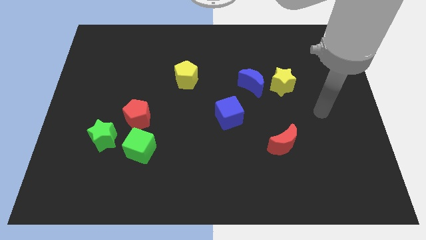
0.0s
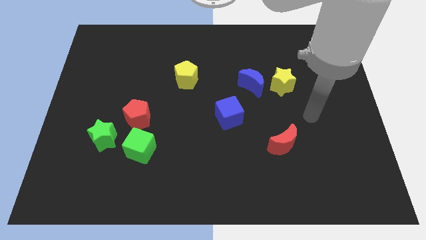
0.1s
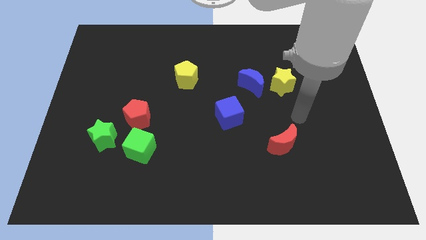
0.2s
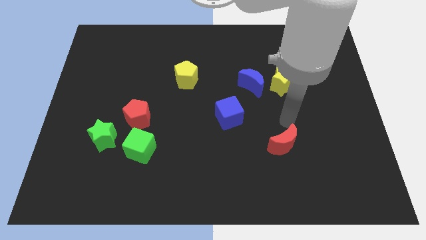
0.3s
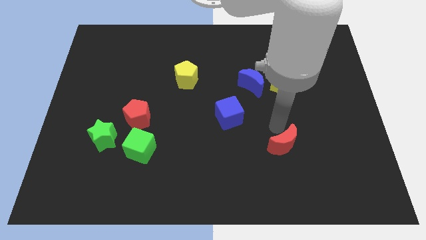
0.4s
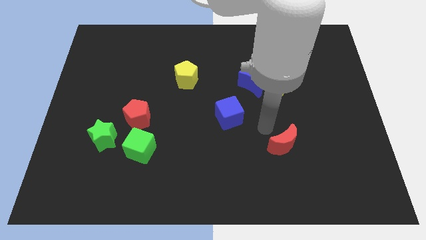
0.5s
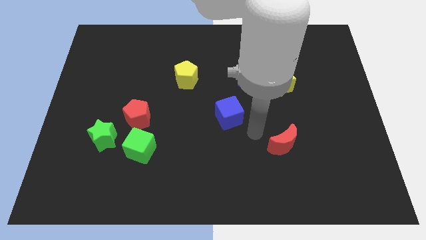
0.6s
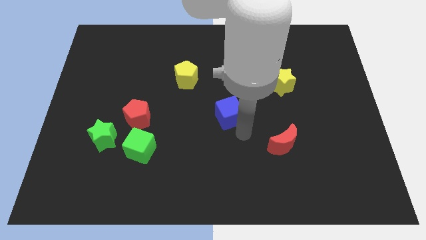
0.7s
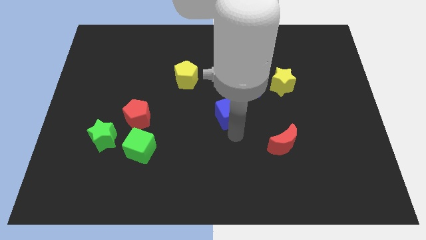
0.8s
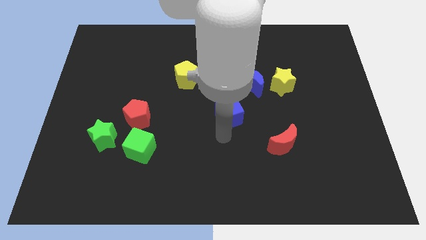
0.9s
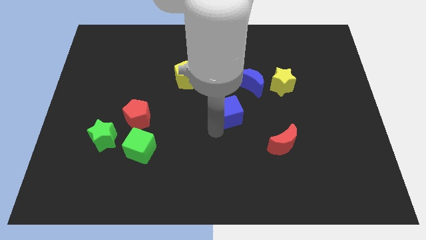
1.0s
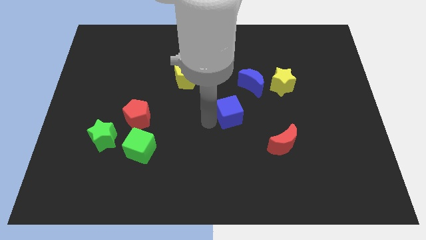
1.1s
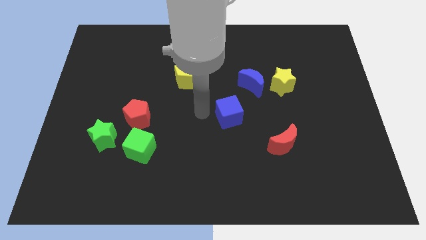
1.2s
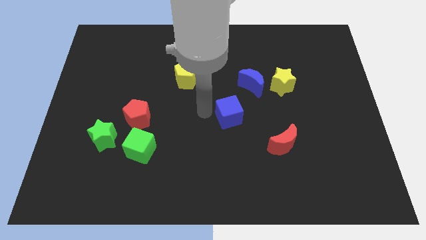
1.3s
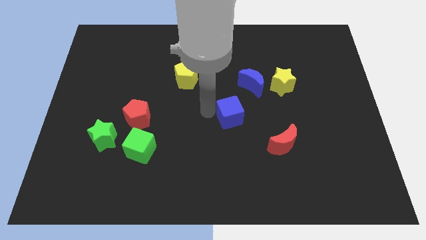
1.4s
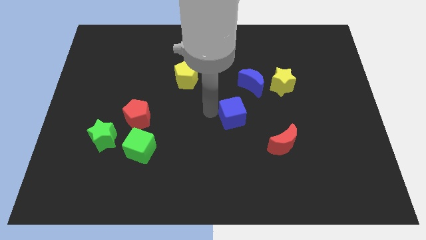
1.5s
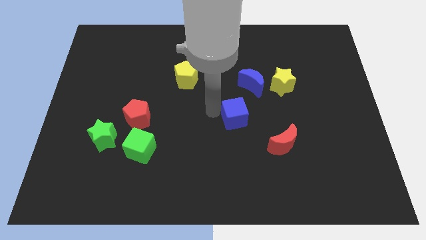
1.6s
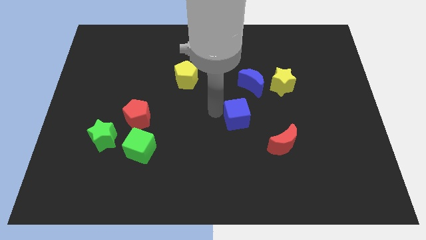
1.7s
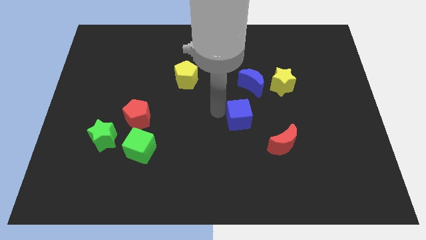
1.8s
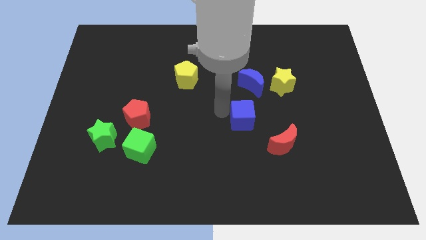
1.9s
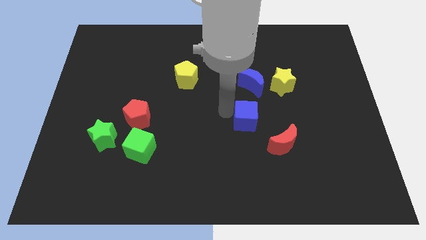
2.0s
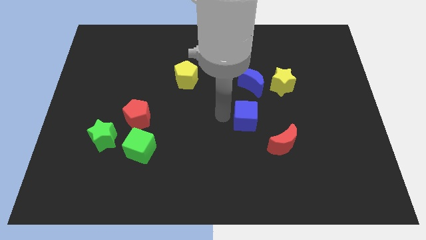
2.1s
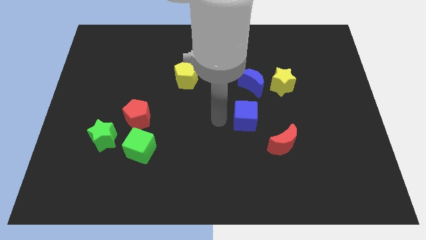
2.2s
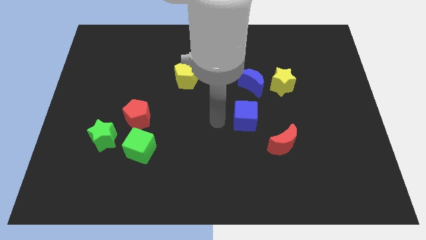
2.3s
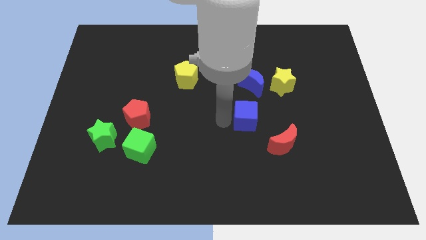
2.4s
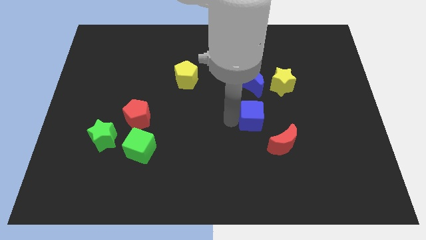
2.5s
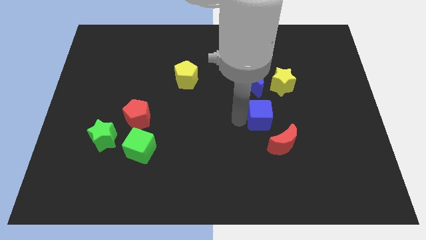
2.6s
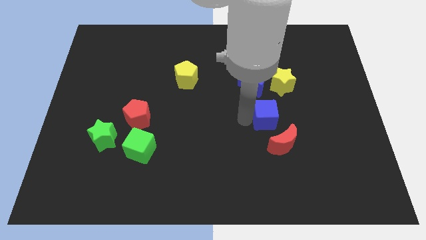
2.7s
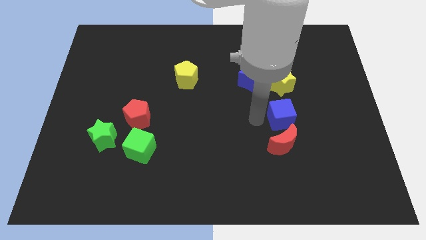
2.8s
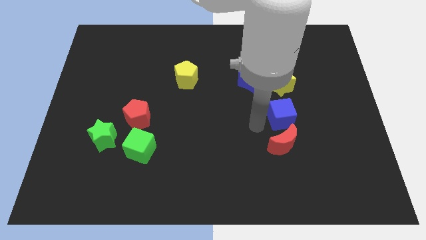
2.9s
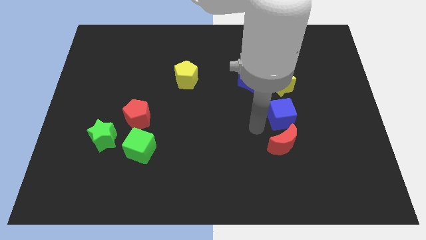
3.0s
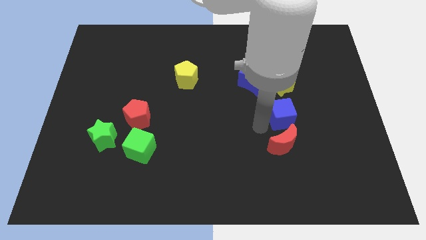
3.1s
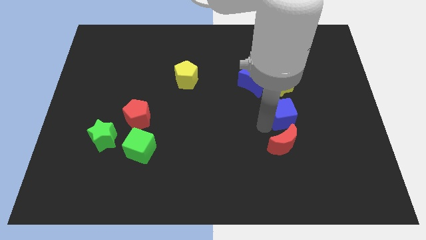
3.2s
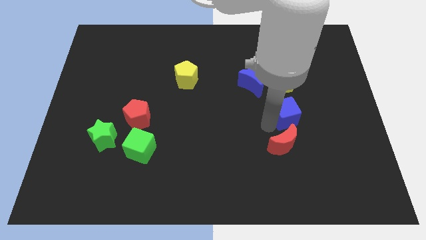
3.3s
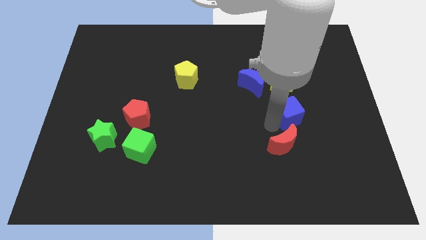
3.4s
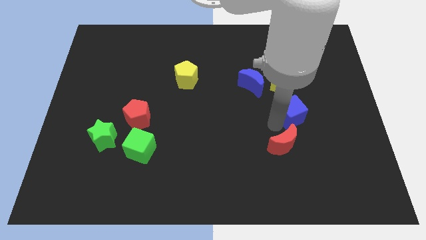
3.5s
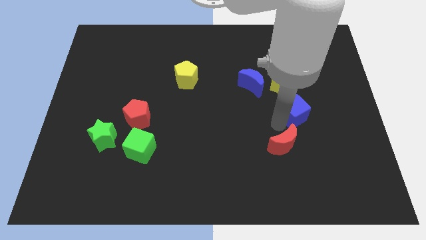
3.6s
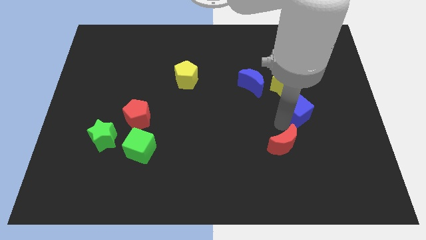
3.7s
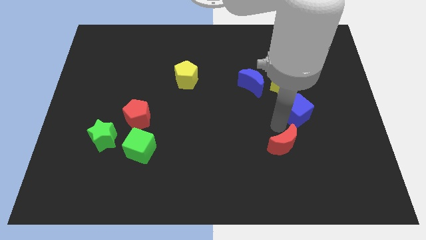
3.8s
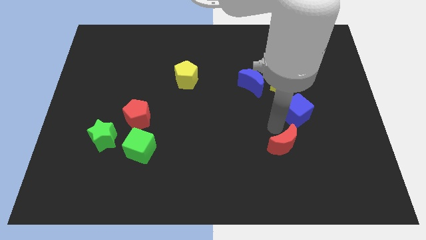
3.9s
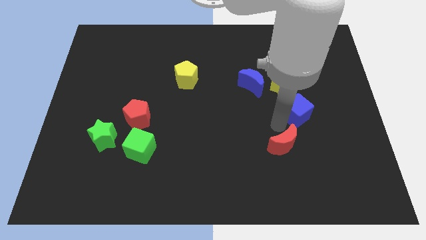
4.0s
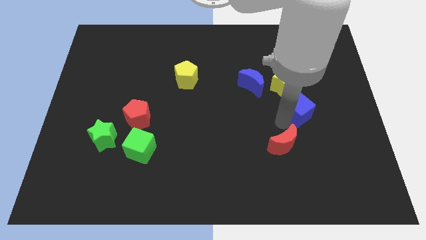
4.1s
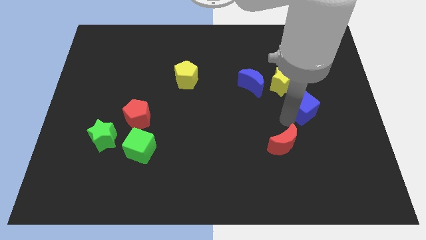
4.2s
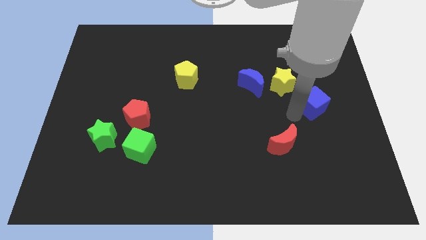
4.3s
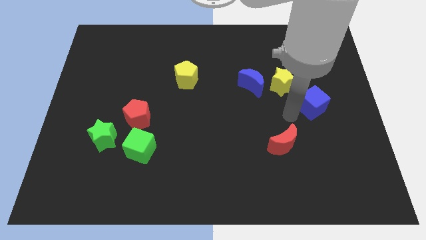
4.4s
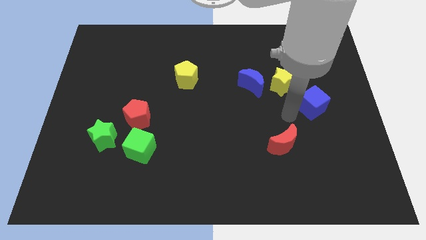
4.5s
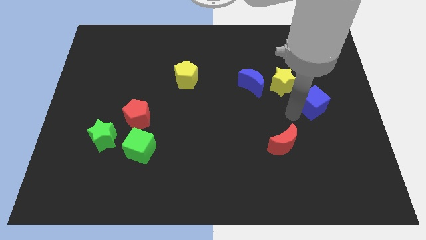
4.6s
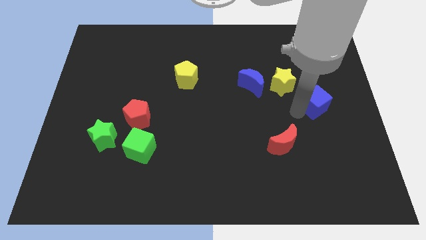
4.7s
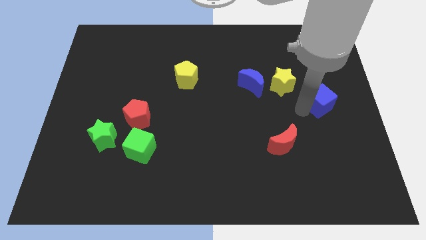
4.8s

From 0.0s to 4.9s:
slide the blue cube to the right side of the board

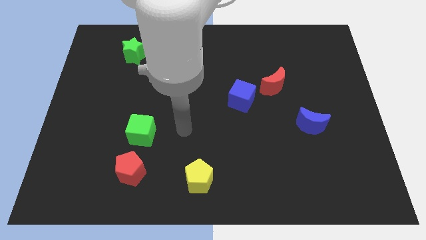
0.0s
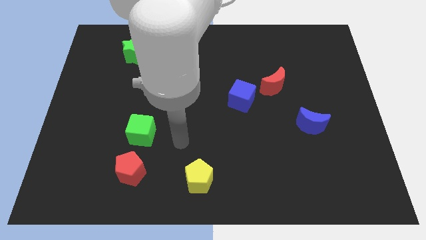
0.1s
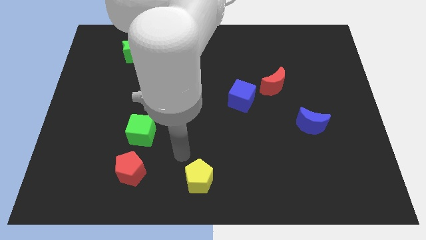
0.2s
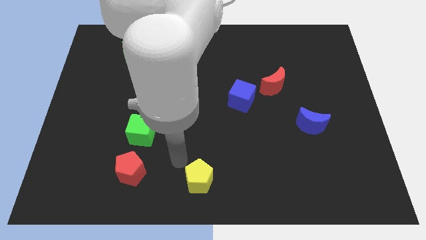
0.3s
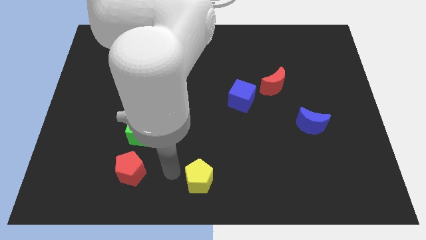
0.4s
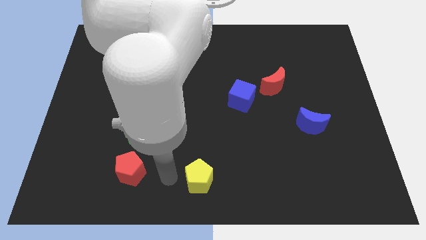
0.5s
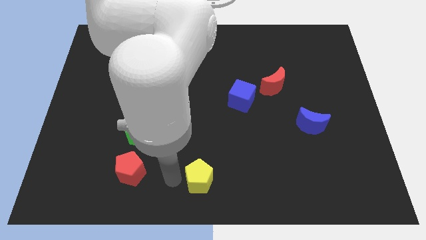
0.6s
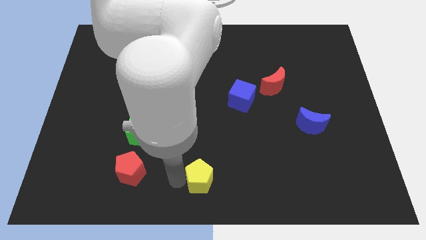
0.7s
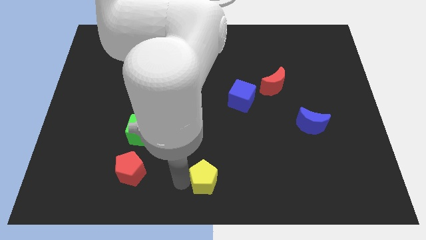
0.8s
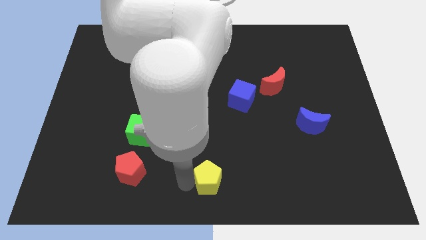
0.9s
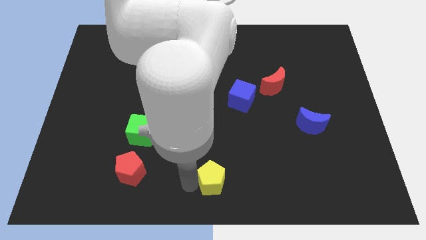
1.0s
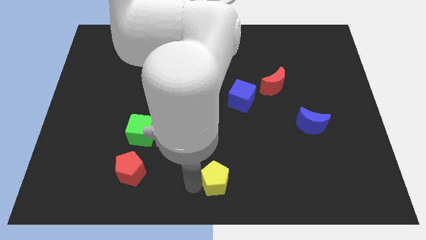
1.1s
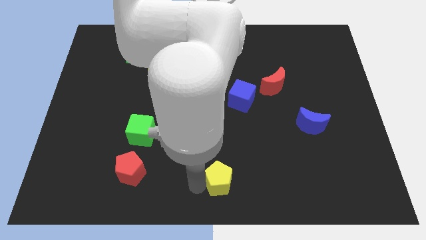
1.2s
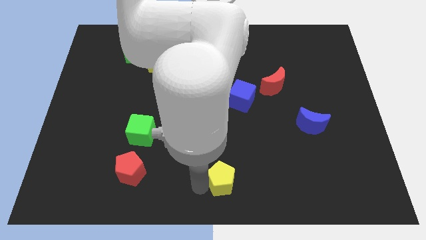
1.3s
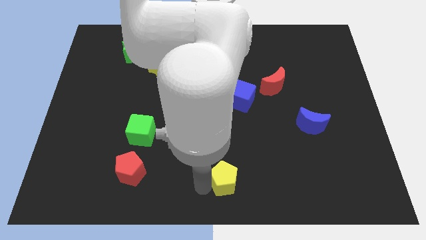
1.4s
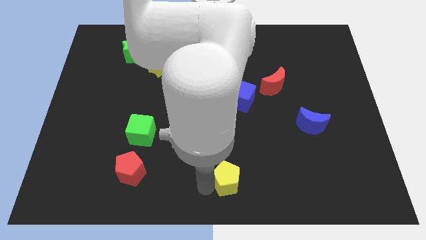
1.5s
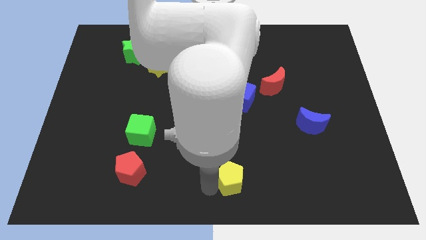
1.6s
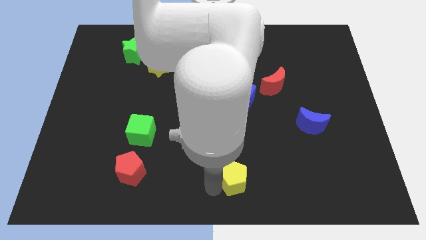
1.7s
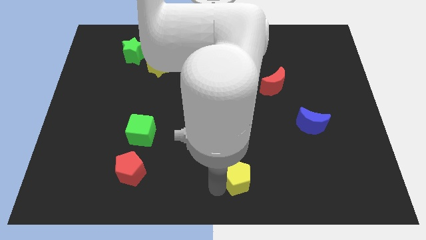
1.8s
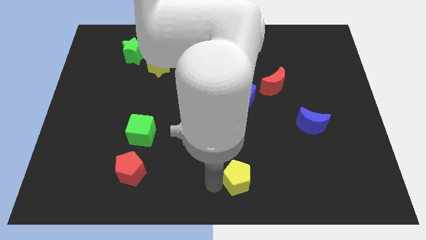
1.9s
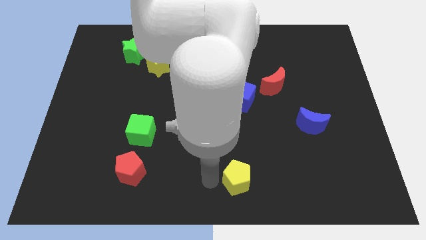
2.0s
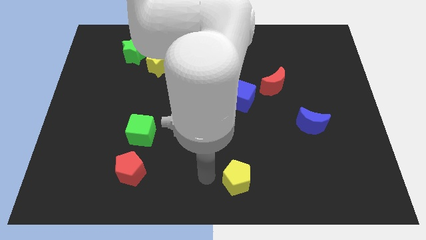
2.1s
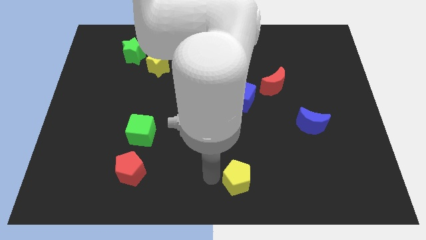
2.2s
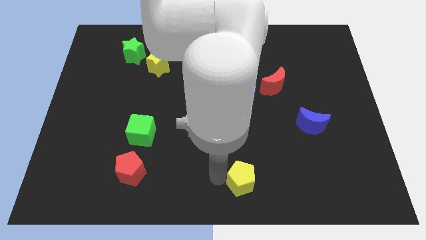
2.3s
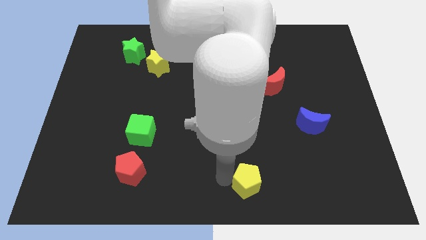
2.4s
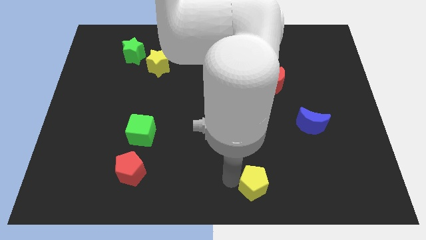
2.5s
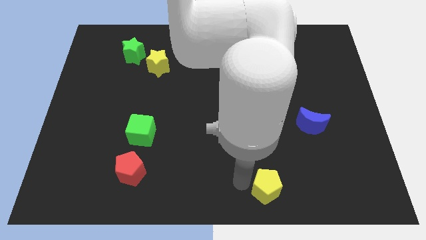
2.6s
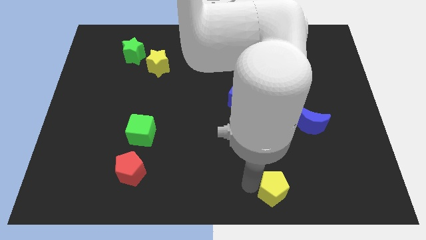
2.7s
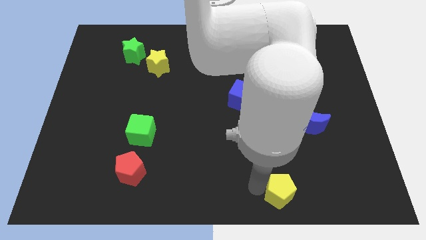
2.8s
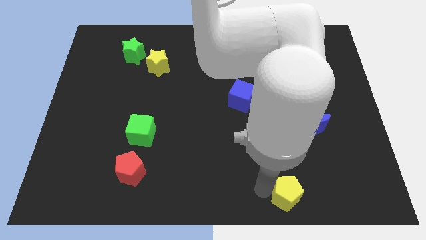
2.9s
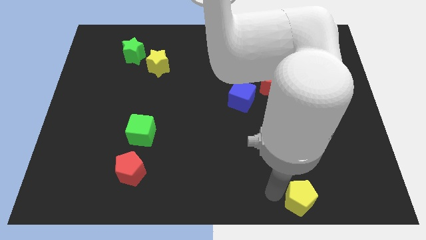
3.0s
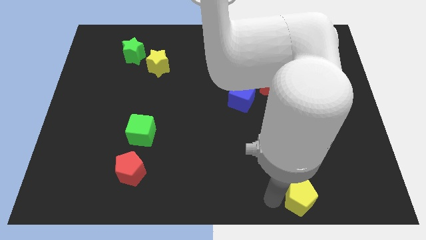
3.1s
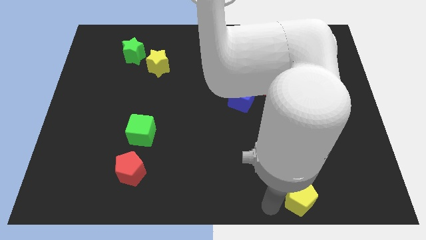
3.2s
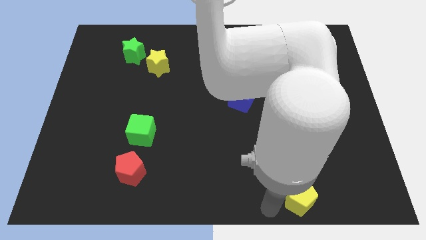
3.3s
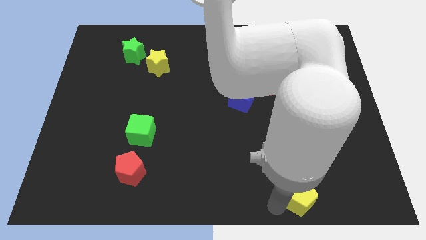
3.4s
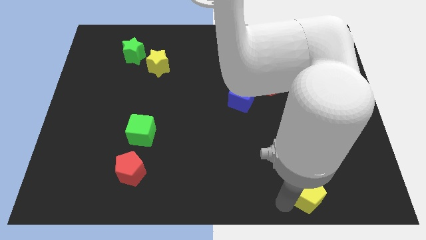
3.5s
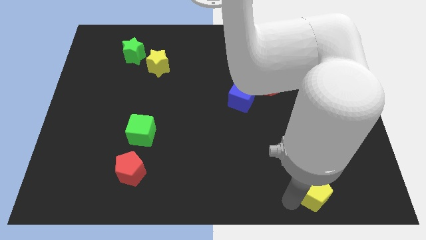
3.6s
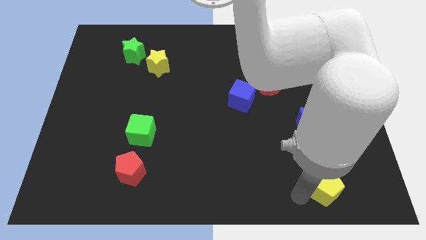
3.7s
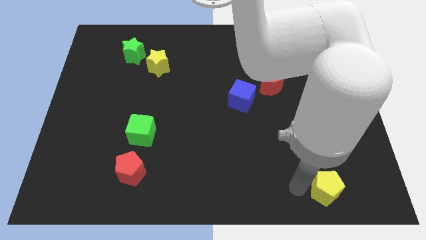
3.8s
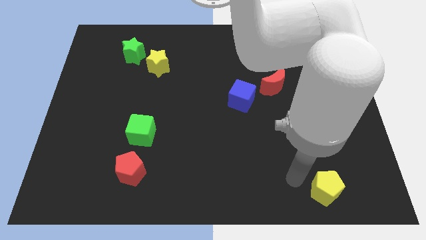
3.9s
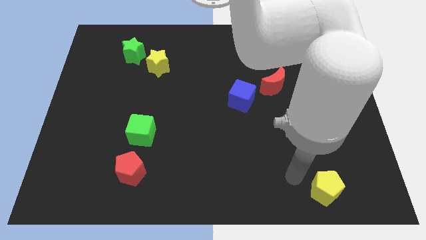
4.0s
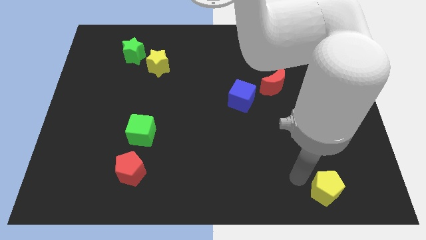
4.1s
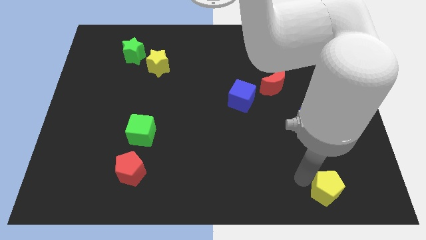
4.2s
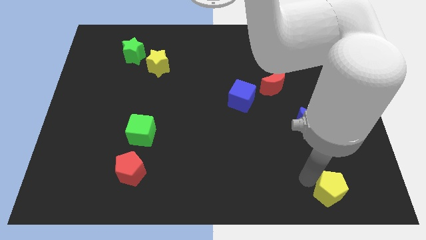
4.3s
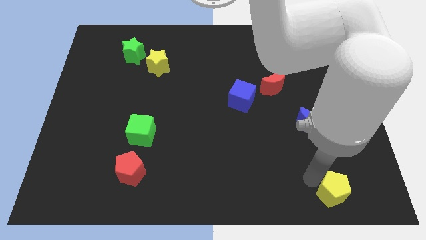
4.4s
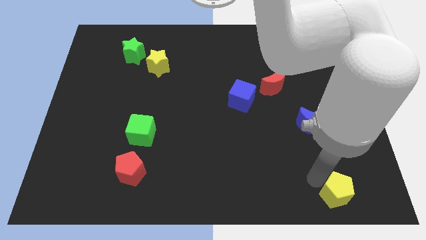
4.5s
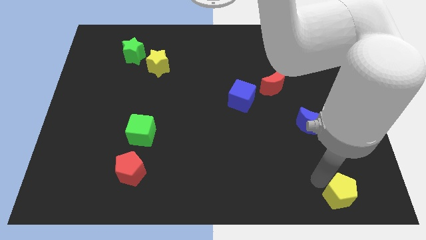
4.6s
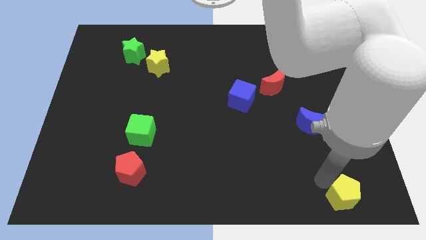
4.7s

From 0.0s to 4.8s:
slide the yellow pentagon to the bottom right corner
